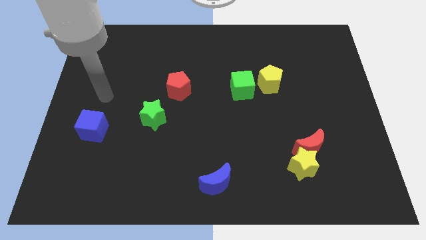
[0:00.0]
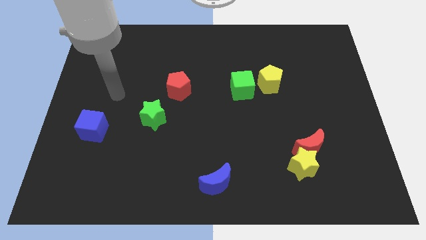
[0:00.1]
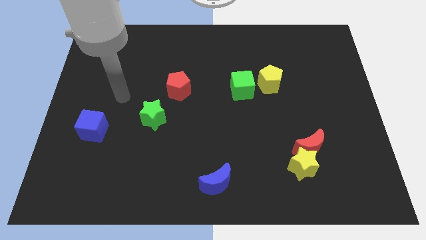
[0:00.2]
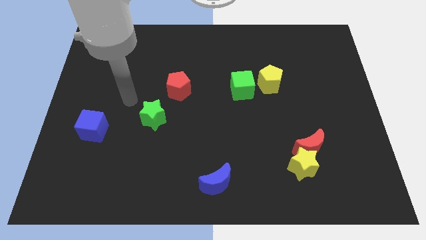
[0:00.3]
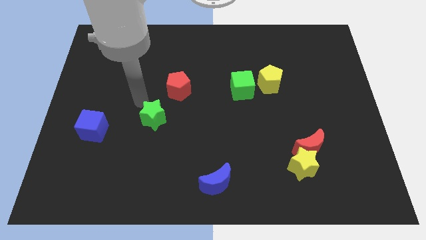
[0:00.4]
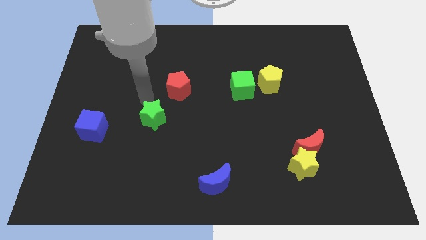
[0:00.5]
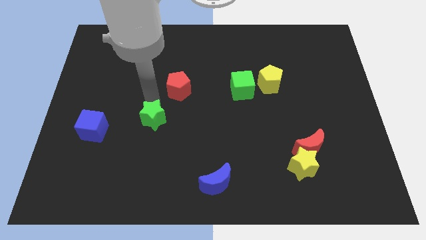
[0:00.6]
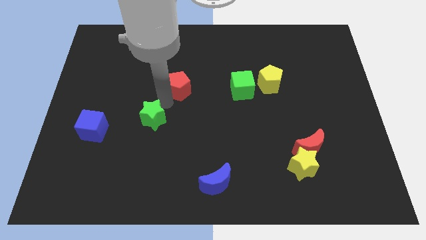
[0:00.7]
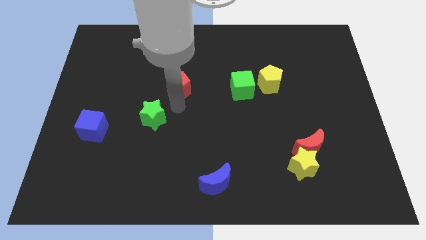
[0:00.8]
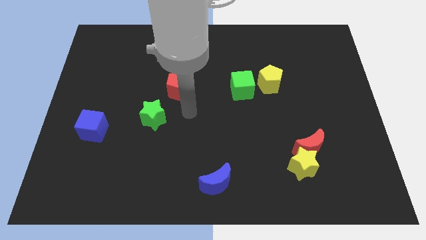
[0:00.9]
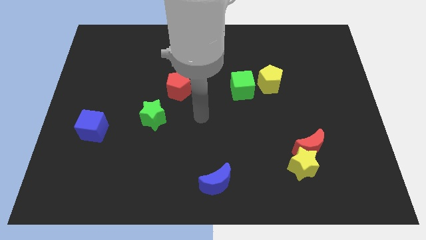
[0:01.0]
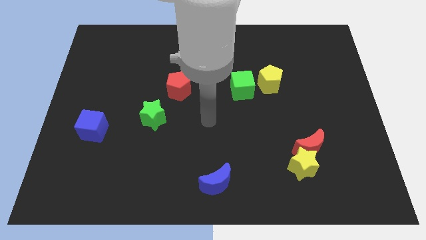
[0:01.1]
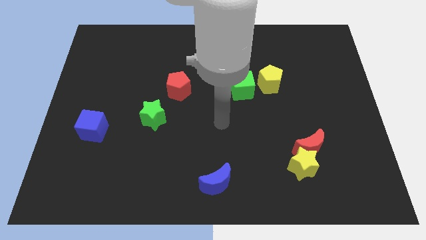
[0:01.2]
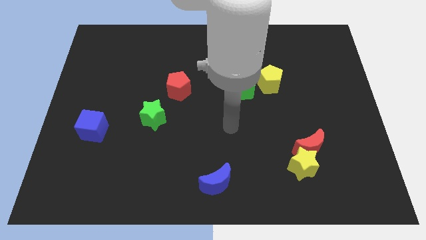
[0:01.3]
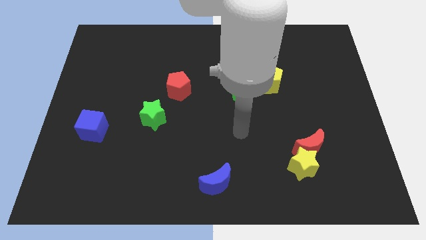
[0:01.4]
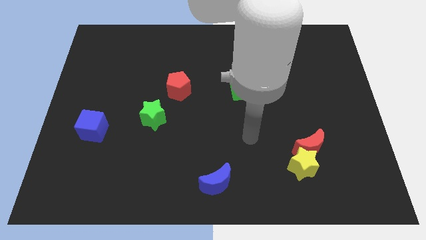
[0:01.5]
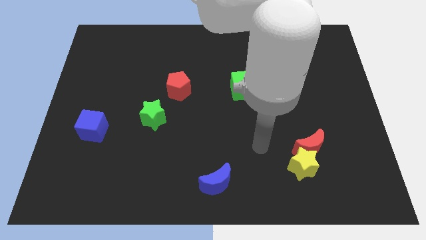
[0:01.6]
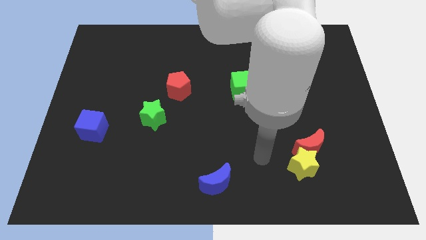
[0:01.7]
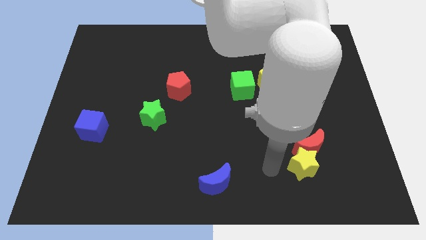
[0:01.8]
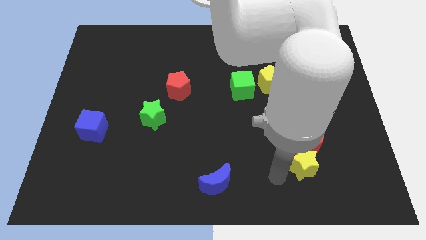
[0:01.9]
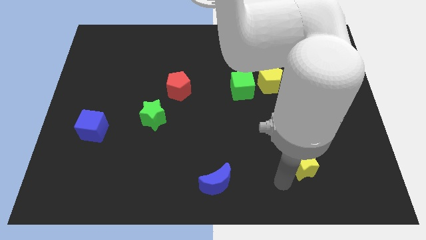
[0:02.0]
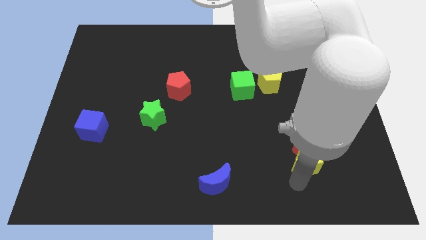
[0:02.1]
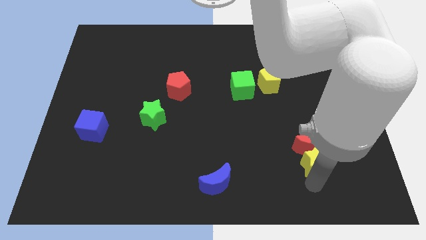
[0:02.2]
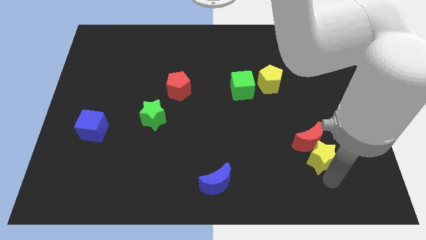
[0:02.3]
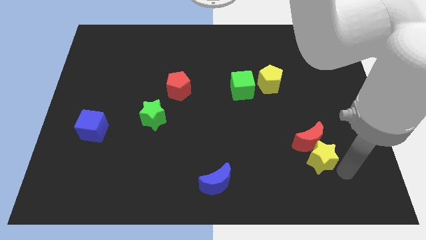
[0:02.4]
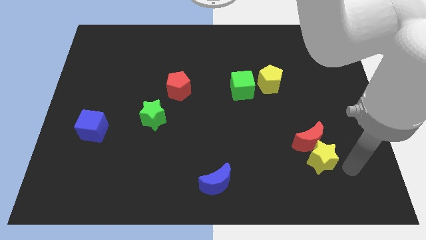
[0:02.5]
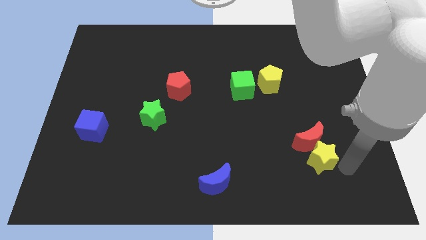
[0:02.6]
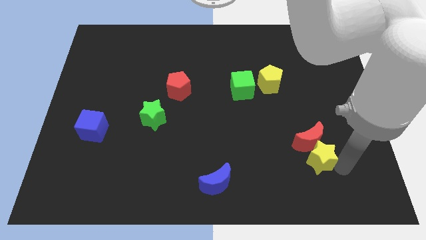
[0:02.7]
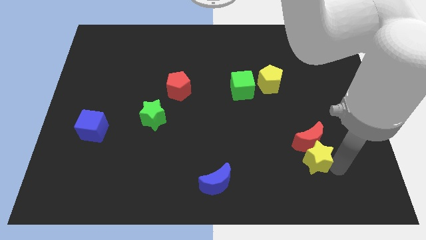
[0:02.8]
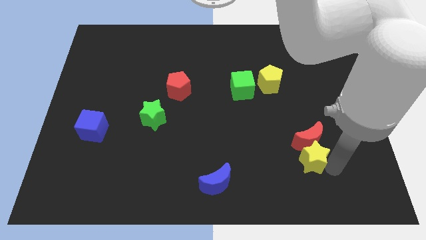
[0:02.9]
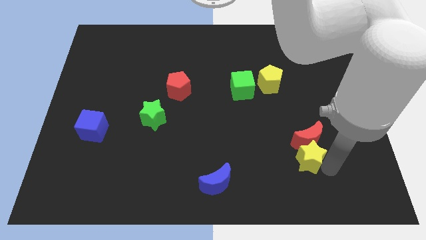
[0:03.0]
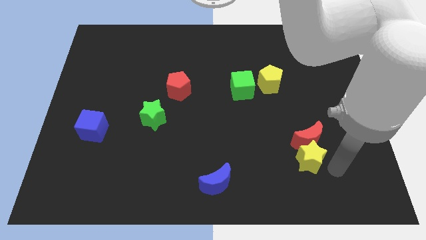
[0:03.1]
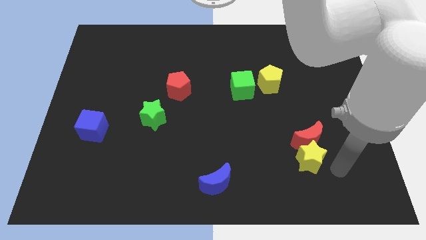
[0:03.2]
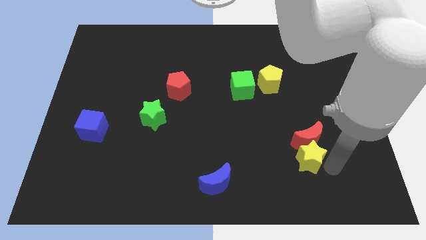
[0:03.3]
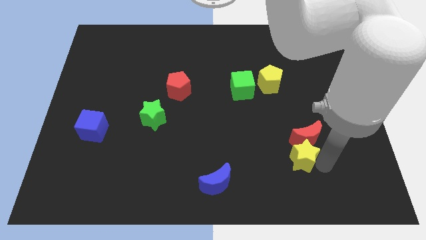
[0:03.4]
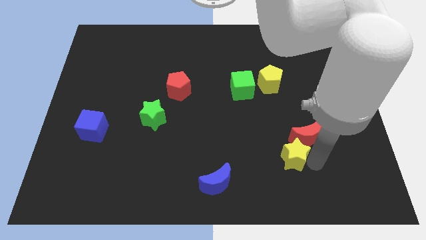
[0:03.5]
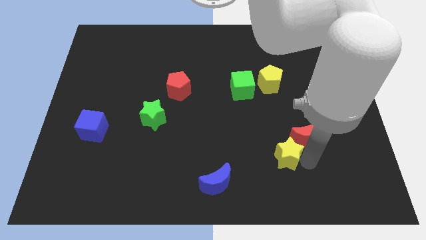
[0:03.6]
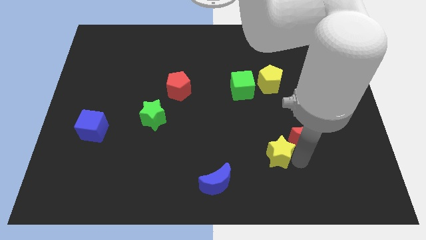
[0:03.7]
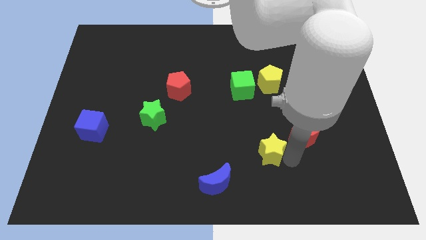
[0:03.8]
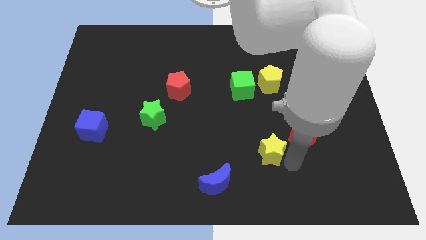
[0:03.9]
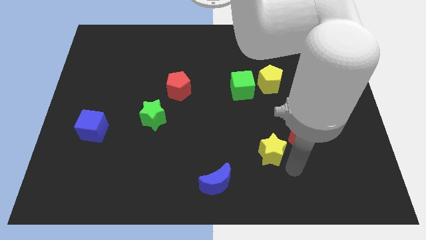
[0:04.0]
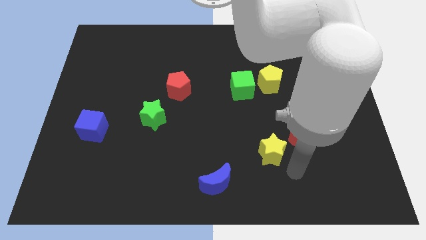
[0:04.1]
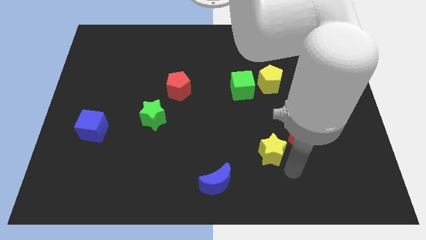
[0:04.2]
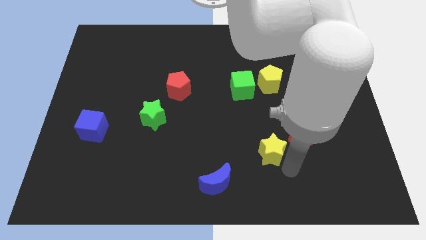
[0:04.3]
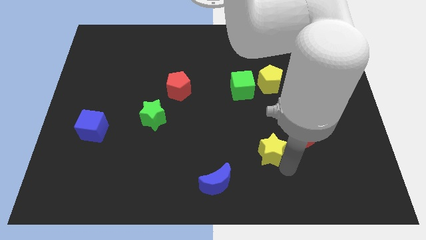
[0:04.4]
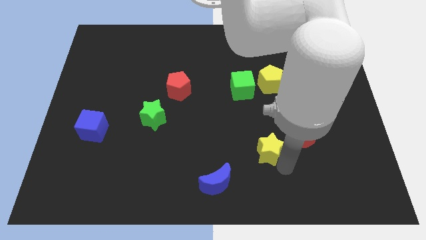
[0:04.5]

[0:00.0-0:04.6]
move the yellow star a bit upwards and then left

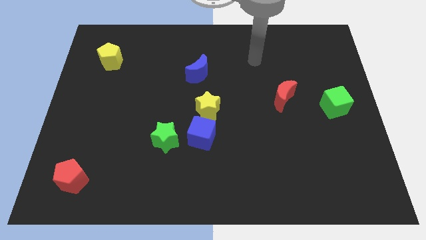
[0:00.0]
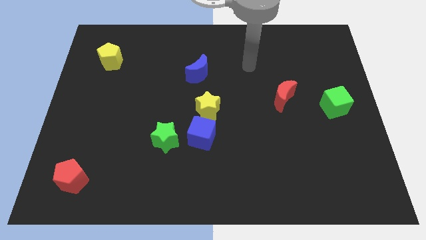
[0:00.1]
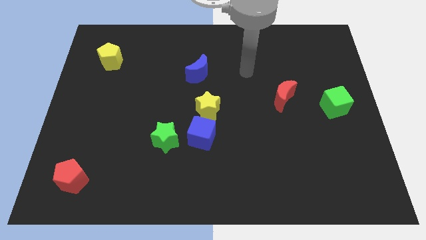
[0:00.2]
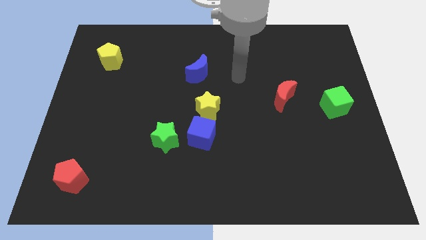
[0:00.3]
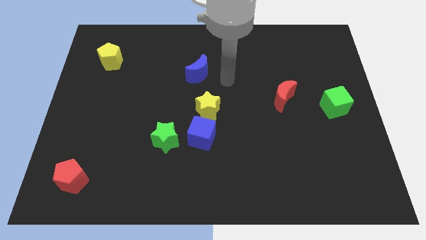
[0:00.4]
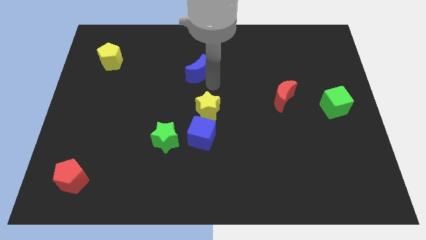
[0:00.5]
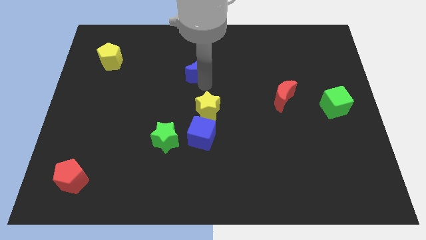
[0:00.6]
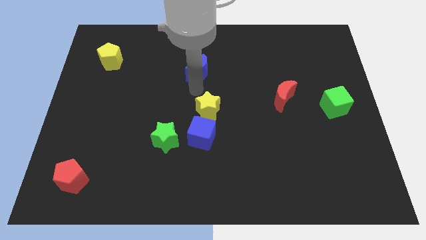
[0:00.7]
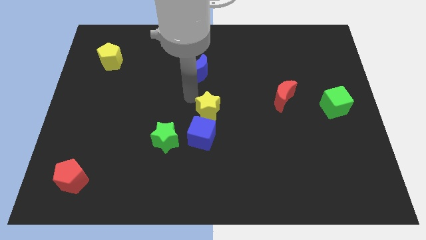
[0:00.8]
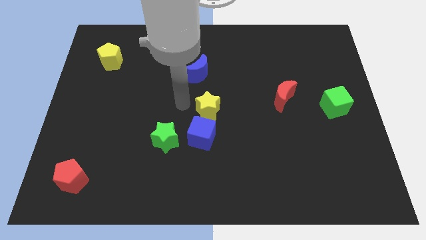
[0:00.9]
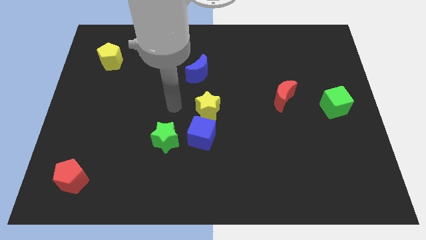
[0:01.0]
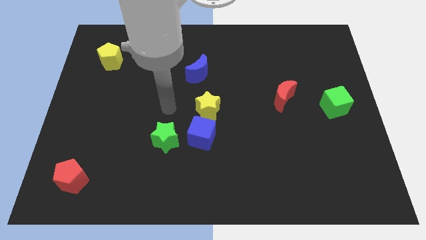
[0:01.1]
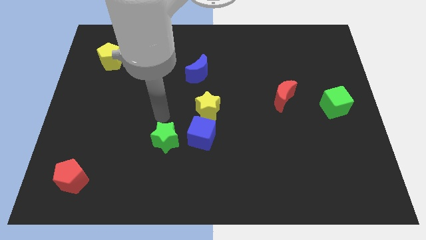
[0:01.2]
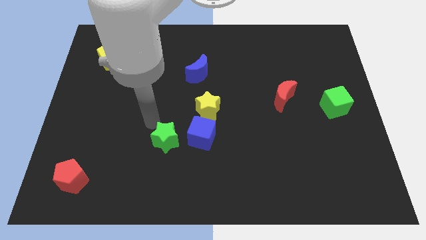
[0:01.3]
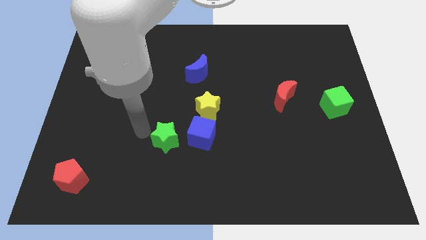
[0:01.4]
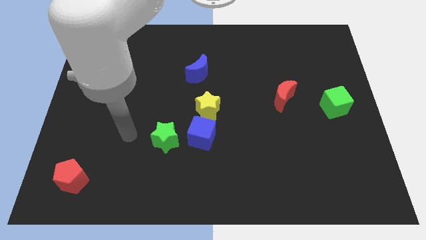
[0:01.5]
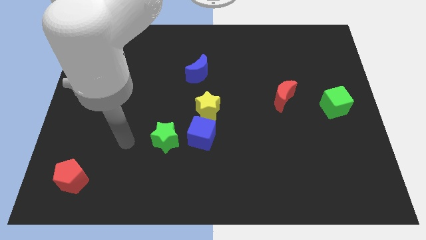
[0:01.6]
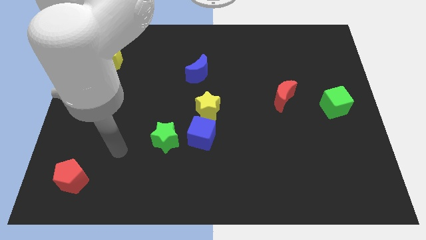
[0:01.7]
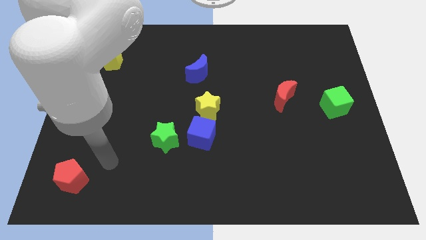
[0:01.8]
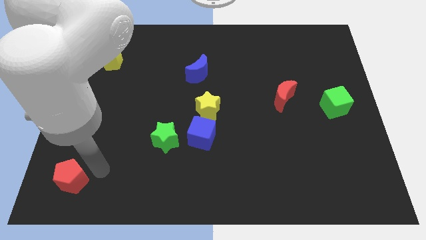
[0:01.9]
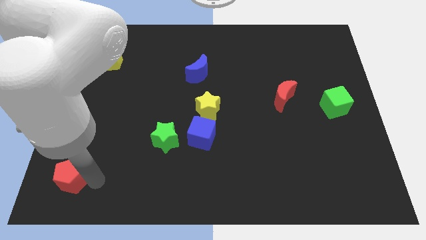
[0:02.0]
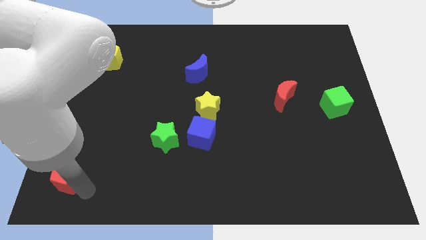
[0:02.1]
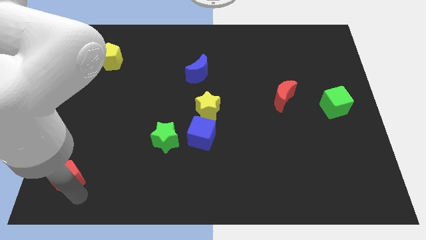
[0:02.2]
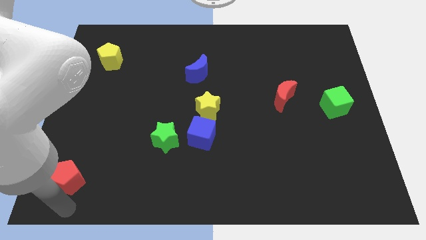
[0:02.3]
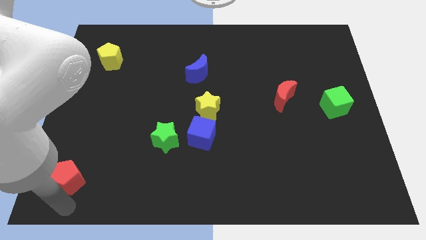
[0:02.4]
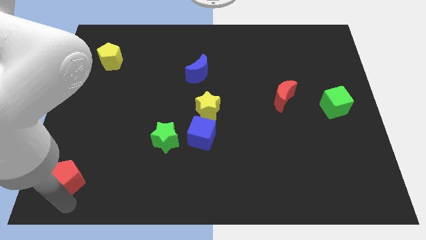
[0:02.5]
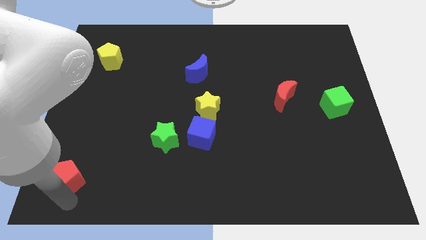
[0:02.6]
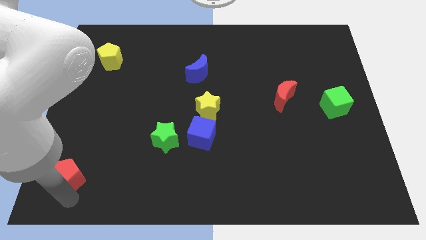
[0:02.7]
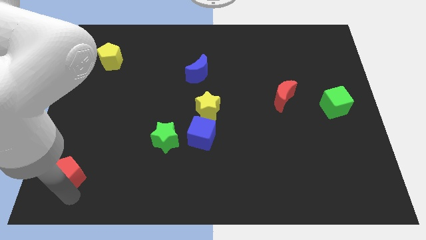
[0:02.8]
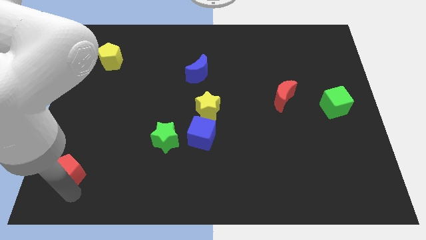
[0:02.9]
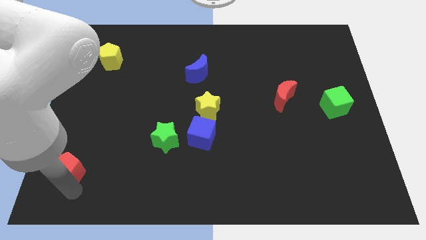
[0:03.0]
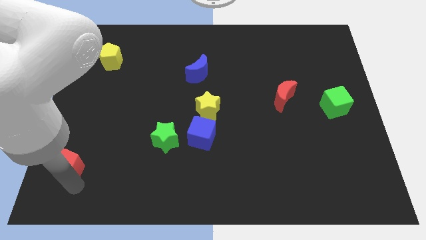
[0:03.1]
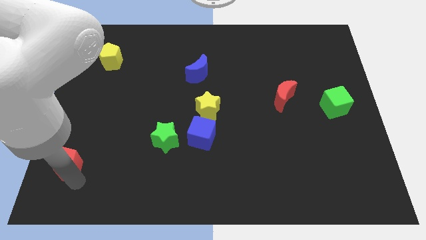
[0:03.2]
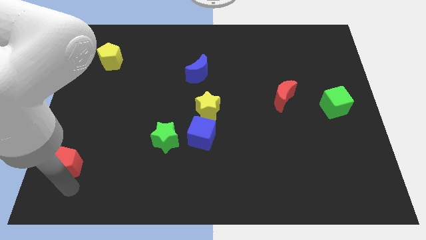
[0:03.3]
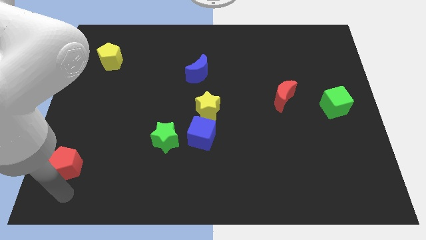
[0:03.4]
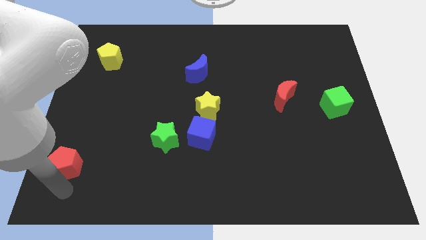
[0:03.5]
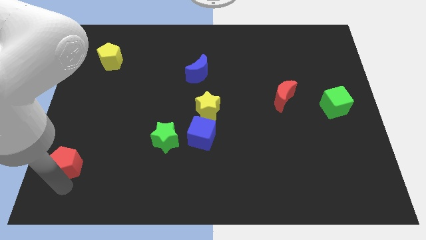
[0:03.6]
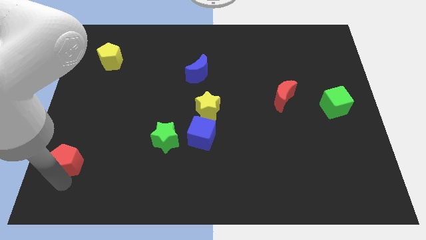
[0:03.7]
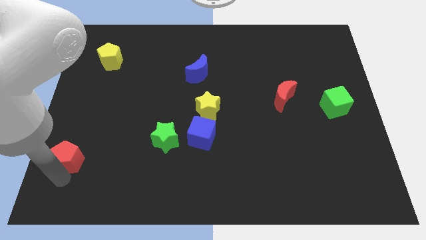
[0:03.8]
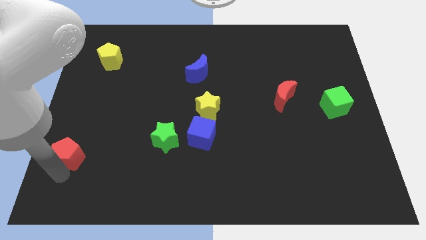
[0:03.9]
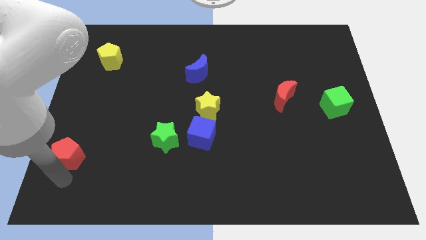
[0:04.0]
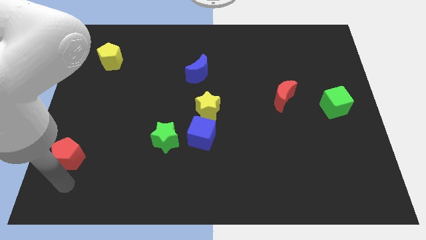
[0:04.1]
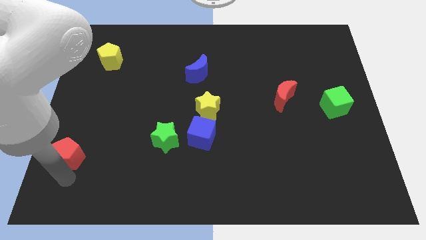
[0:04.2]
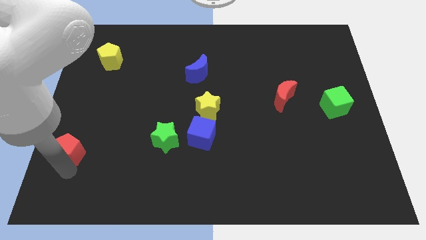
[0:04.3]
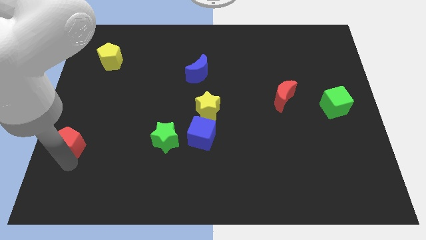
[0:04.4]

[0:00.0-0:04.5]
slide the red pentagon a bit up
